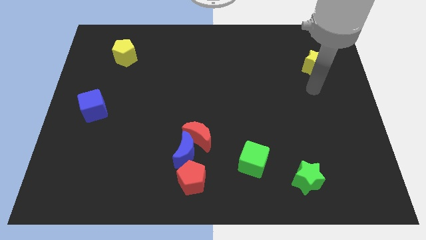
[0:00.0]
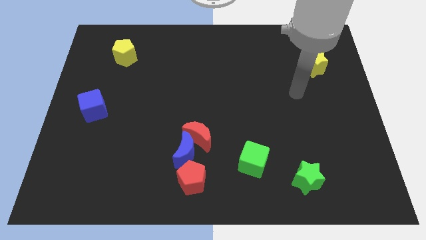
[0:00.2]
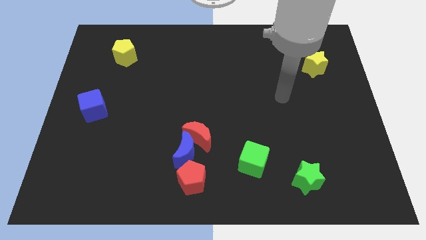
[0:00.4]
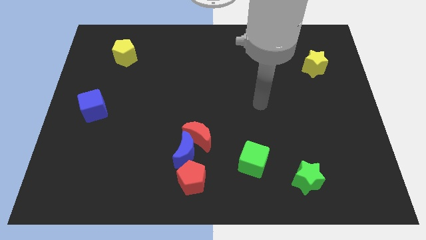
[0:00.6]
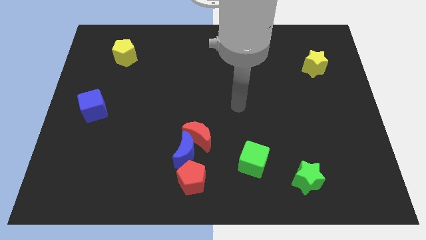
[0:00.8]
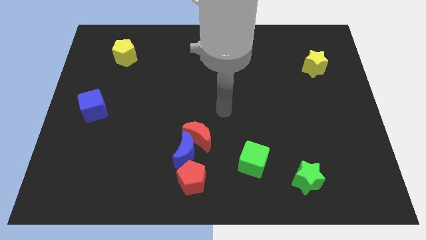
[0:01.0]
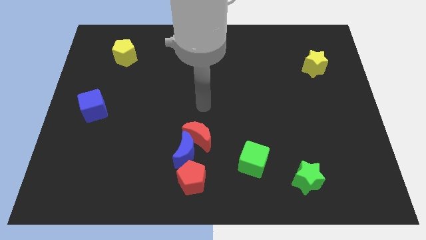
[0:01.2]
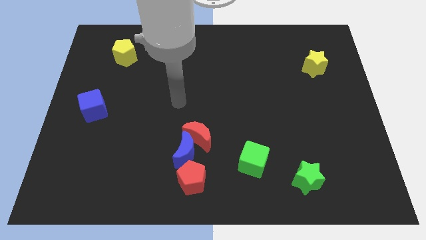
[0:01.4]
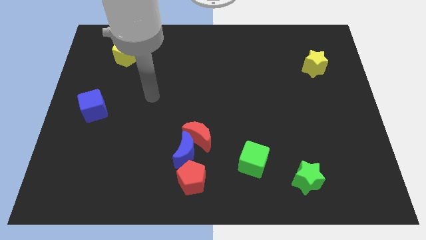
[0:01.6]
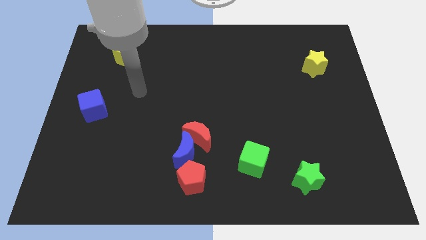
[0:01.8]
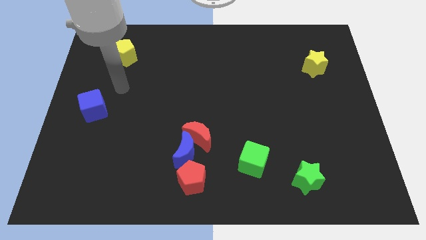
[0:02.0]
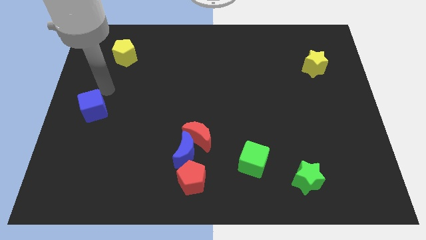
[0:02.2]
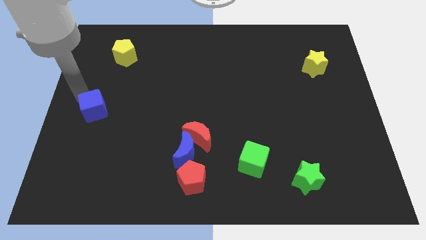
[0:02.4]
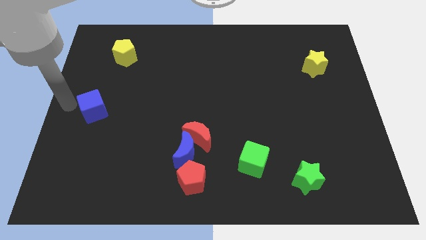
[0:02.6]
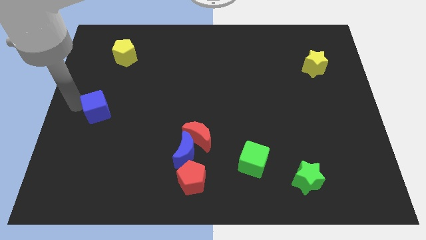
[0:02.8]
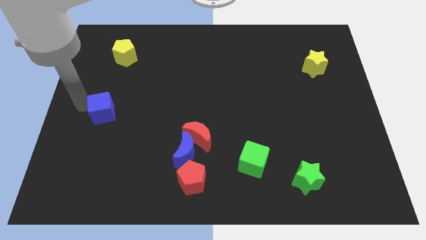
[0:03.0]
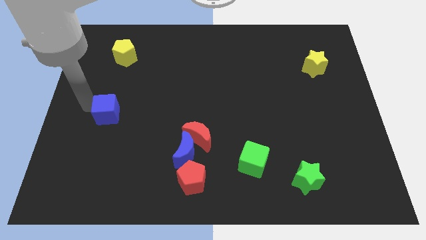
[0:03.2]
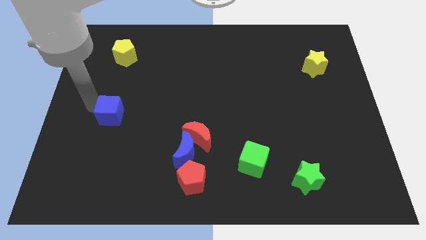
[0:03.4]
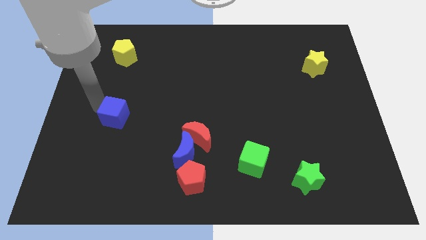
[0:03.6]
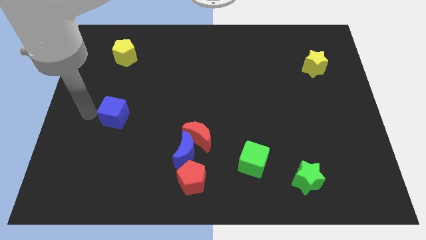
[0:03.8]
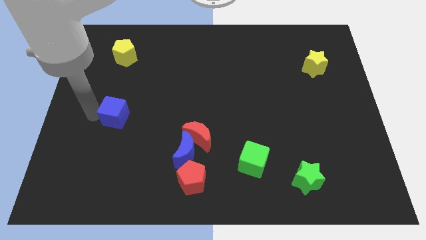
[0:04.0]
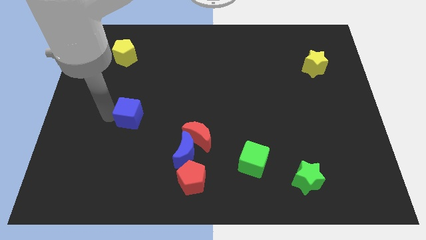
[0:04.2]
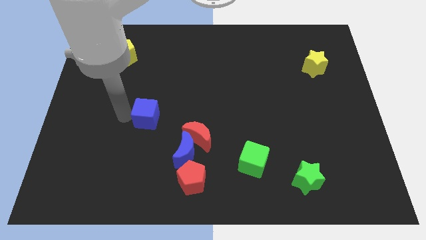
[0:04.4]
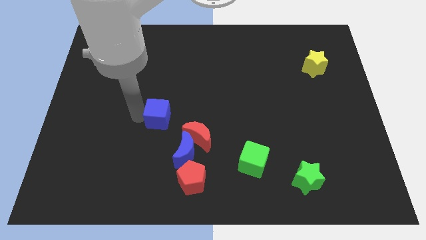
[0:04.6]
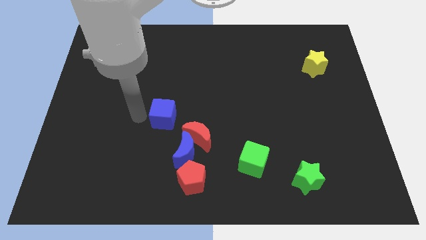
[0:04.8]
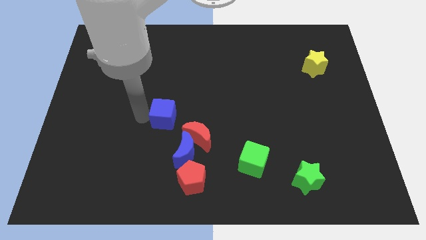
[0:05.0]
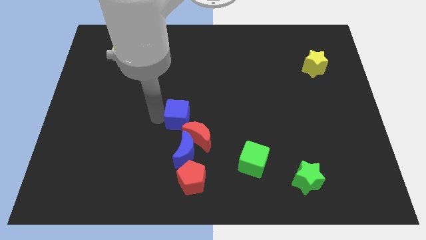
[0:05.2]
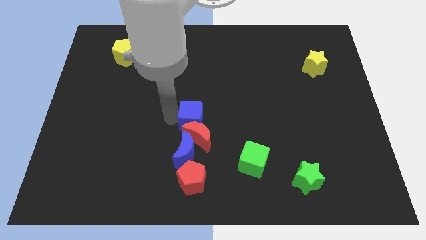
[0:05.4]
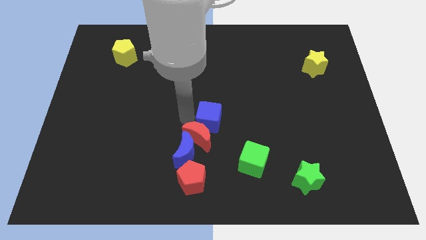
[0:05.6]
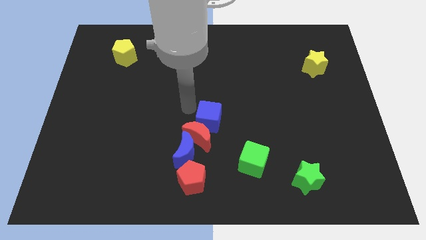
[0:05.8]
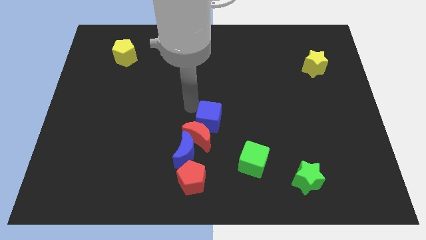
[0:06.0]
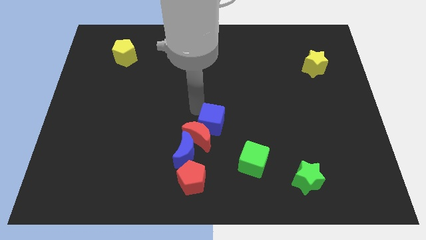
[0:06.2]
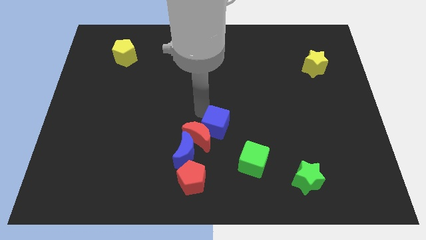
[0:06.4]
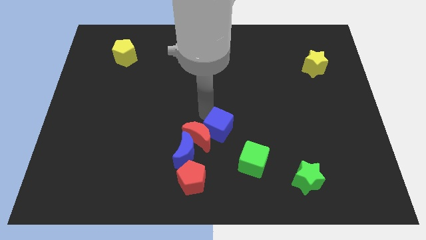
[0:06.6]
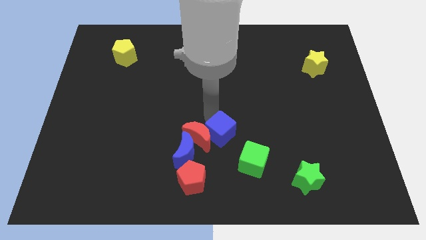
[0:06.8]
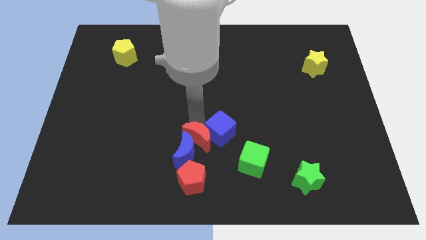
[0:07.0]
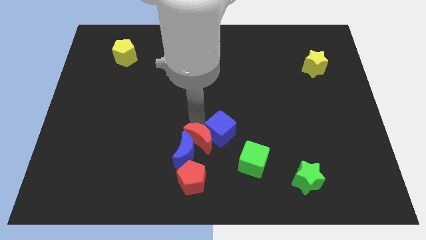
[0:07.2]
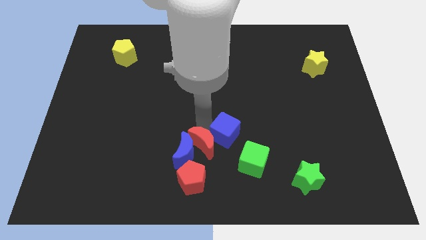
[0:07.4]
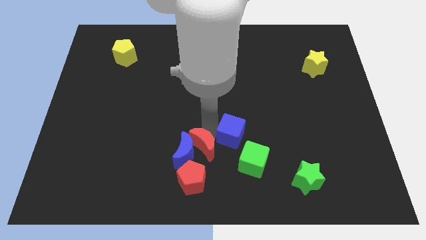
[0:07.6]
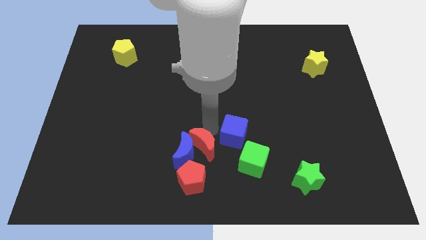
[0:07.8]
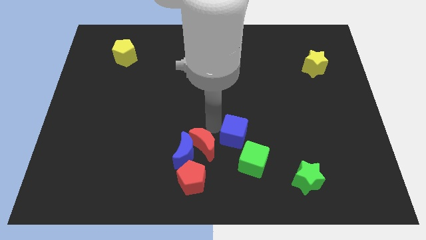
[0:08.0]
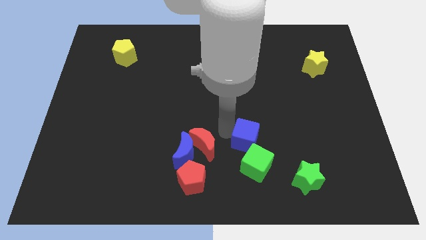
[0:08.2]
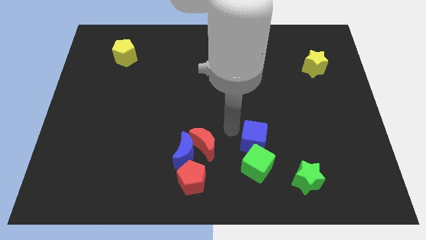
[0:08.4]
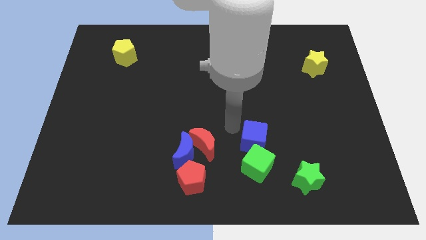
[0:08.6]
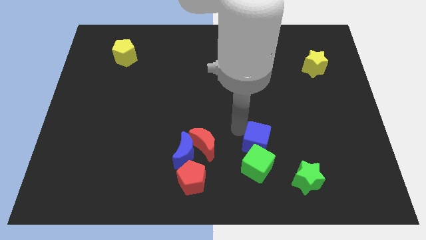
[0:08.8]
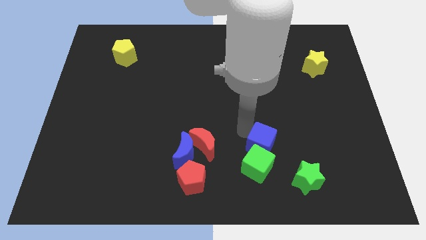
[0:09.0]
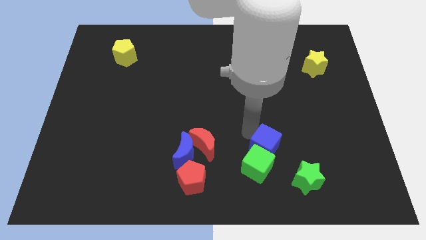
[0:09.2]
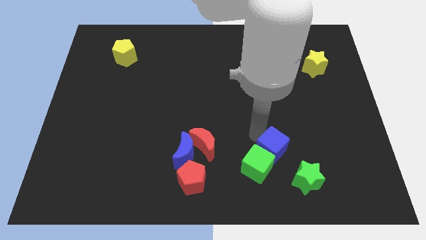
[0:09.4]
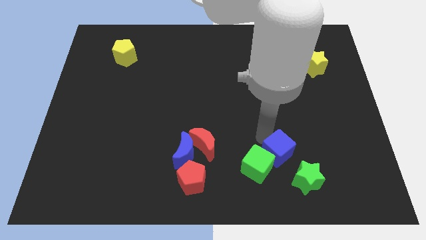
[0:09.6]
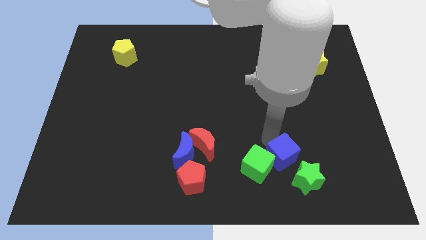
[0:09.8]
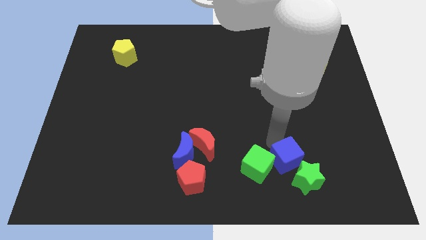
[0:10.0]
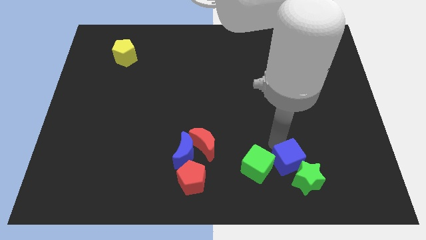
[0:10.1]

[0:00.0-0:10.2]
push the blue cube to the green star

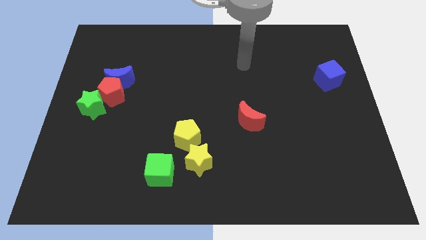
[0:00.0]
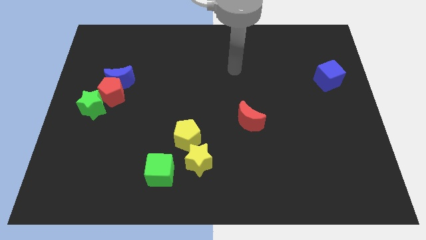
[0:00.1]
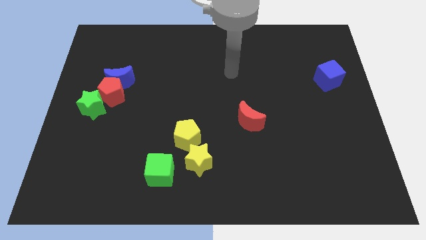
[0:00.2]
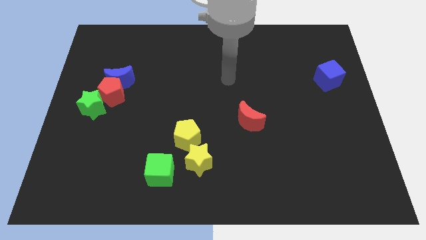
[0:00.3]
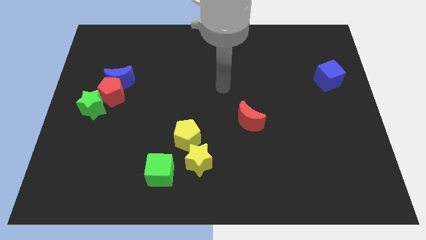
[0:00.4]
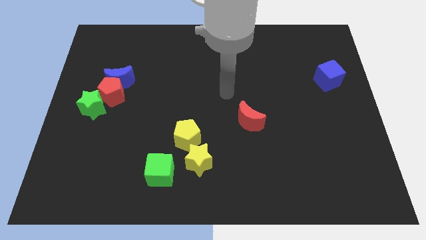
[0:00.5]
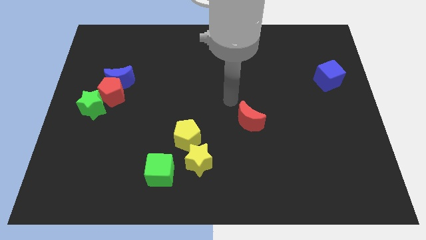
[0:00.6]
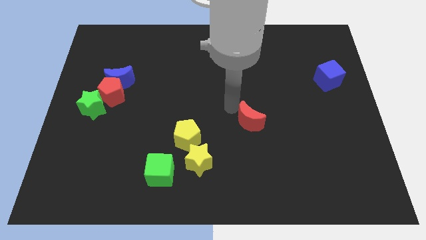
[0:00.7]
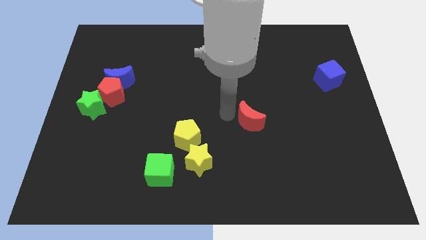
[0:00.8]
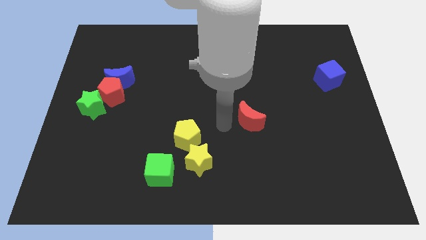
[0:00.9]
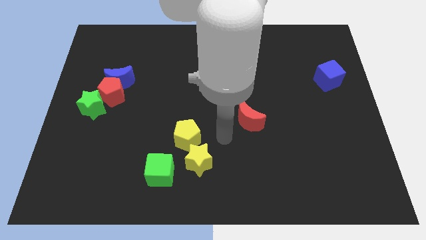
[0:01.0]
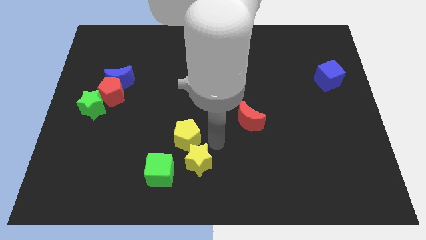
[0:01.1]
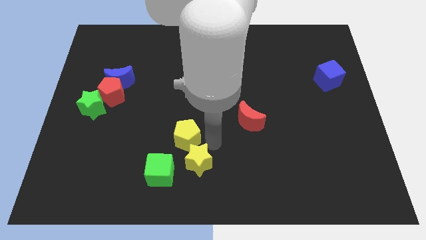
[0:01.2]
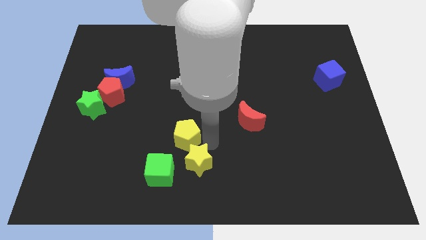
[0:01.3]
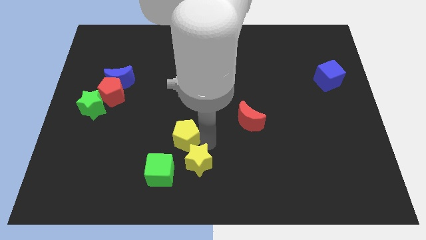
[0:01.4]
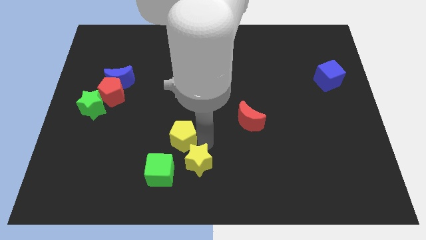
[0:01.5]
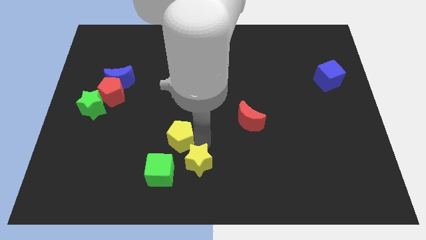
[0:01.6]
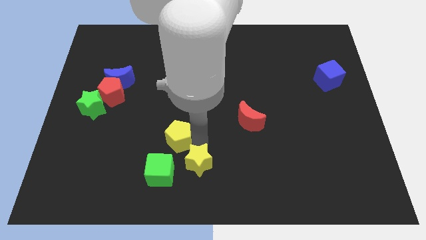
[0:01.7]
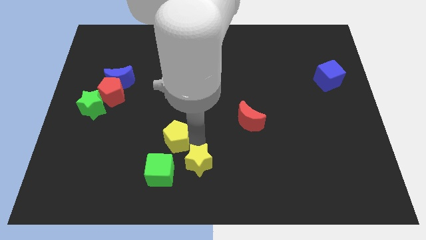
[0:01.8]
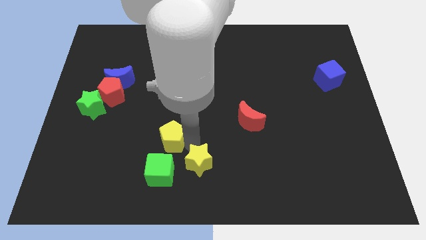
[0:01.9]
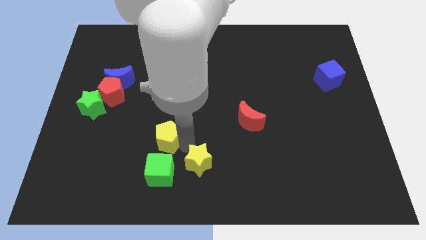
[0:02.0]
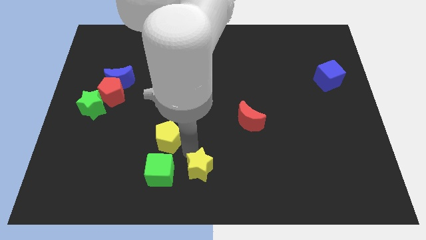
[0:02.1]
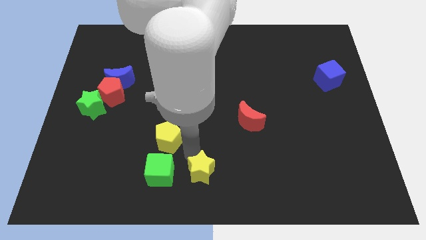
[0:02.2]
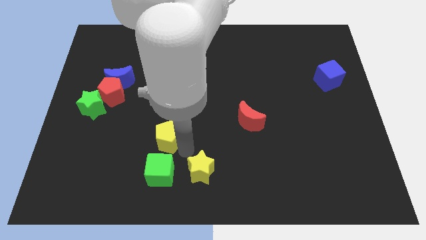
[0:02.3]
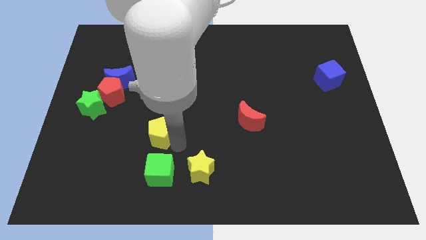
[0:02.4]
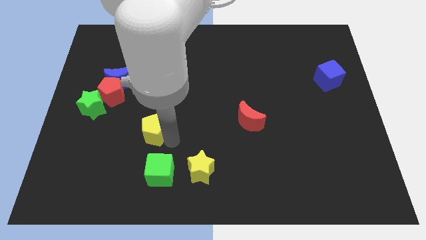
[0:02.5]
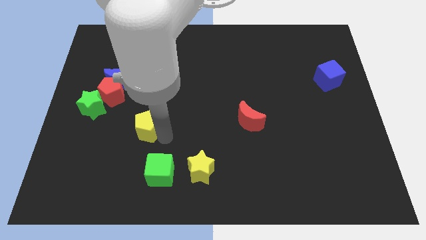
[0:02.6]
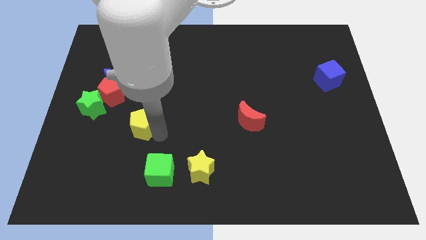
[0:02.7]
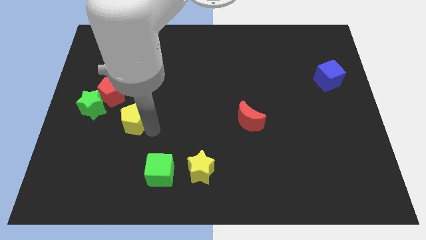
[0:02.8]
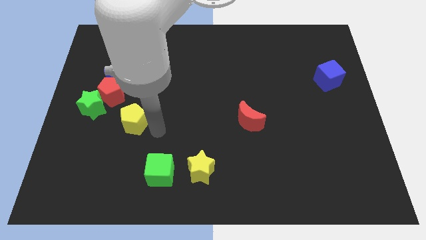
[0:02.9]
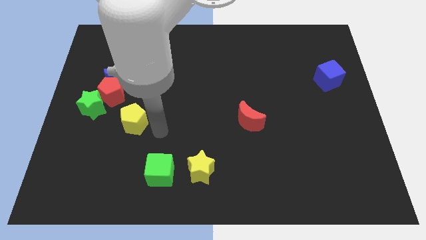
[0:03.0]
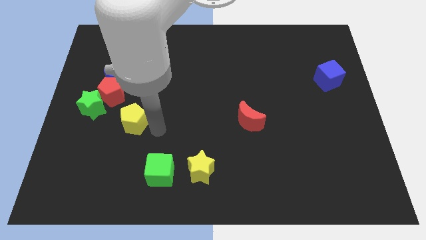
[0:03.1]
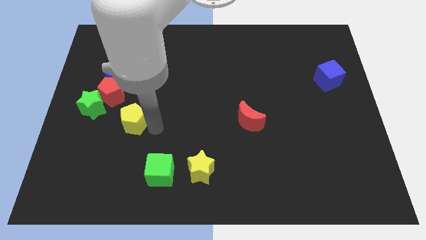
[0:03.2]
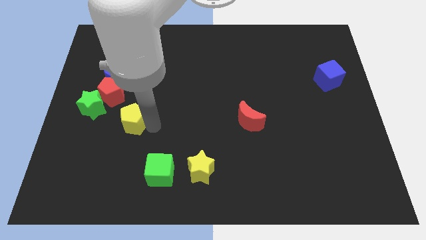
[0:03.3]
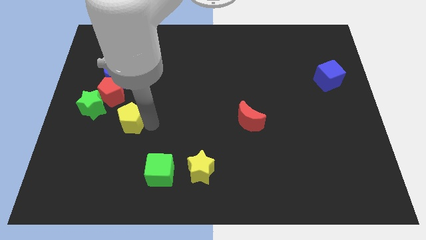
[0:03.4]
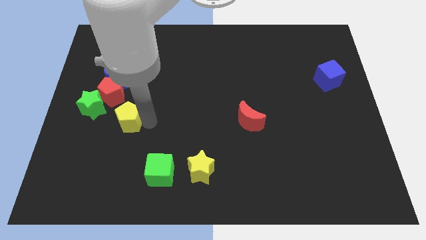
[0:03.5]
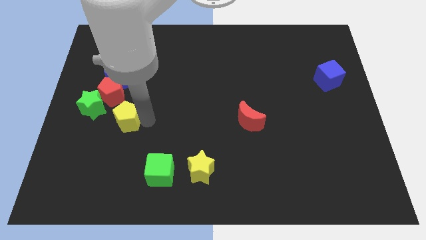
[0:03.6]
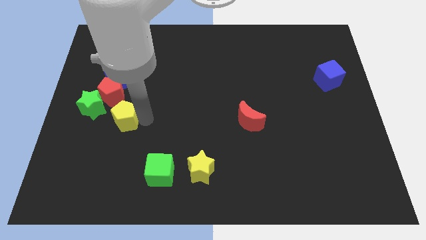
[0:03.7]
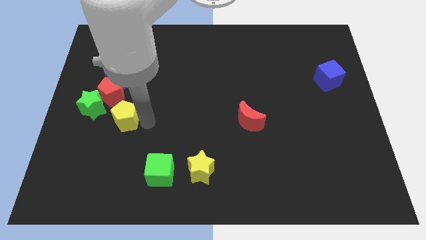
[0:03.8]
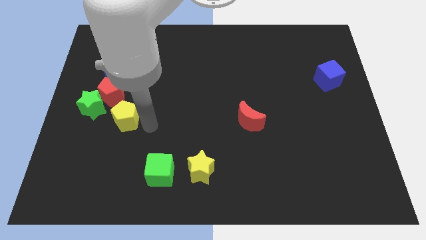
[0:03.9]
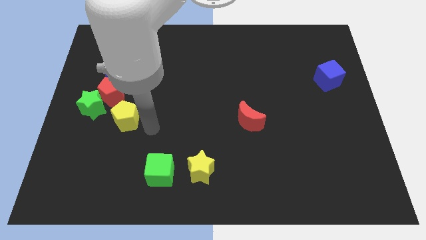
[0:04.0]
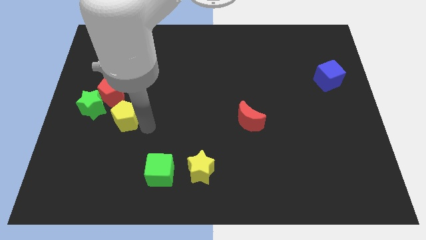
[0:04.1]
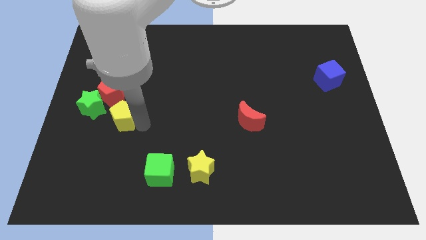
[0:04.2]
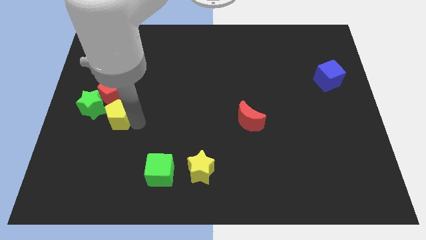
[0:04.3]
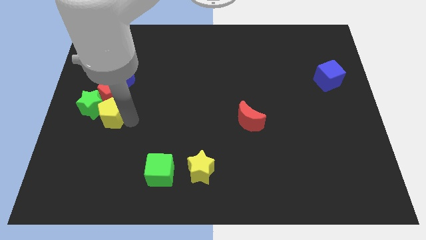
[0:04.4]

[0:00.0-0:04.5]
put the yellow pentagon to the green star
